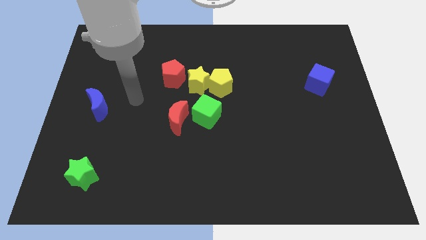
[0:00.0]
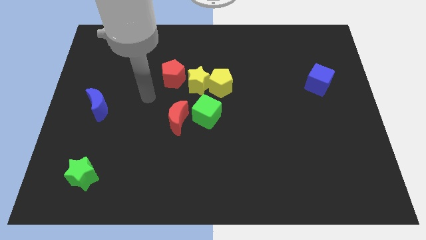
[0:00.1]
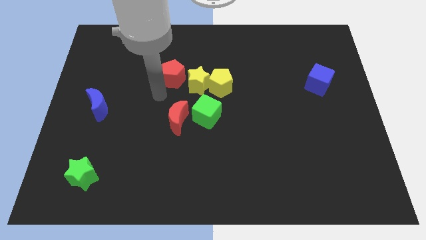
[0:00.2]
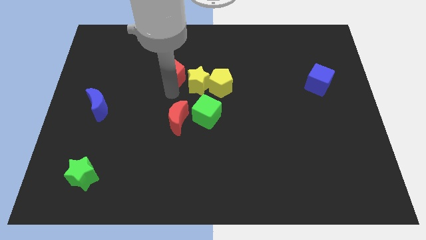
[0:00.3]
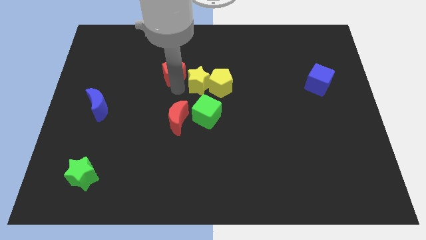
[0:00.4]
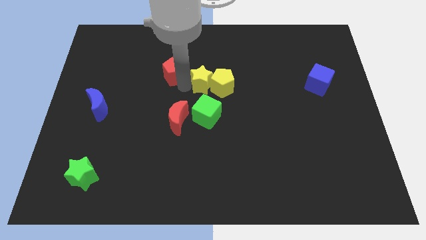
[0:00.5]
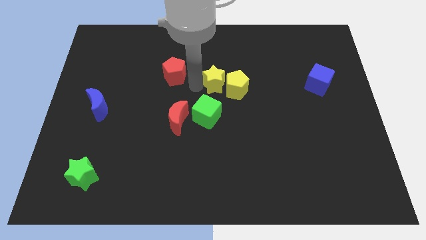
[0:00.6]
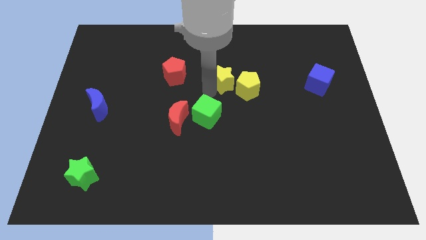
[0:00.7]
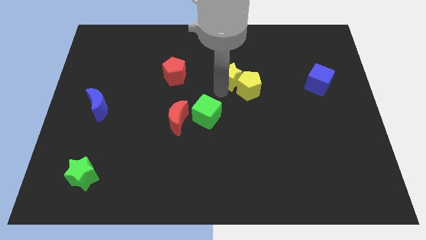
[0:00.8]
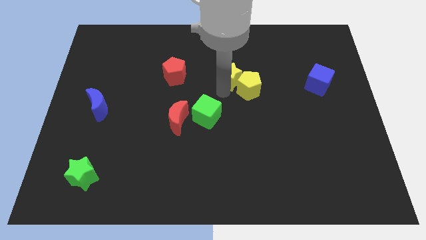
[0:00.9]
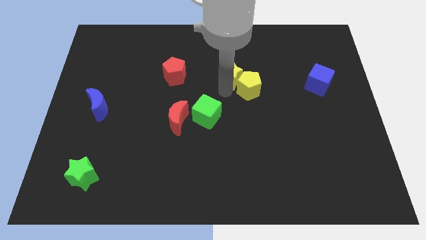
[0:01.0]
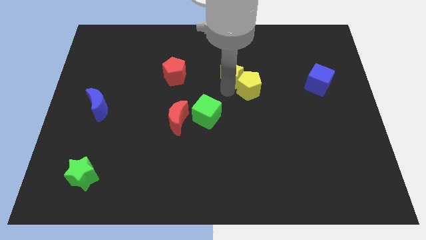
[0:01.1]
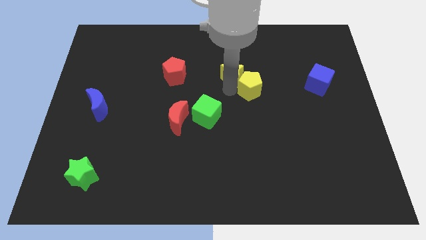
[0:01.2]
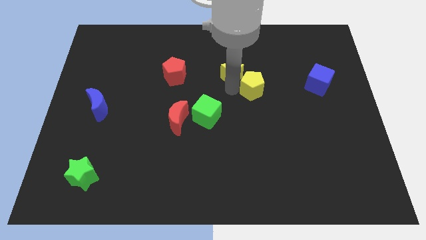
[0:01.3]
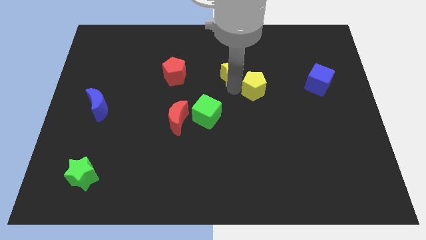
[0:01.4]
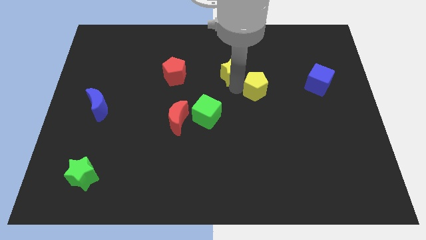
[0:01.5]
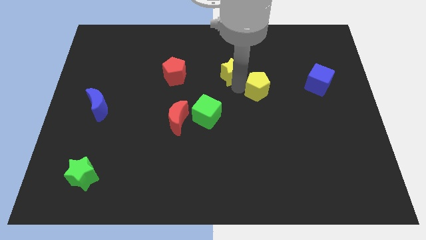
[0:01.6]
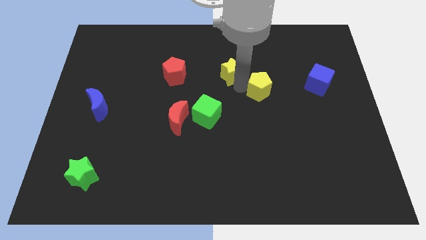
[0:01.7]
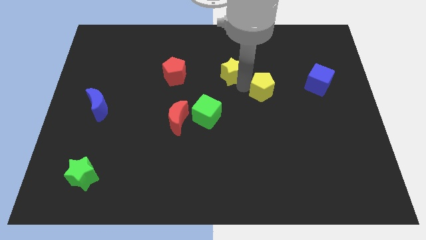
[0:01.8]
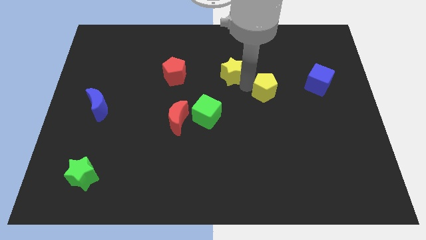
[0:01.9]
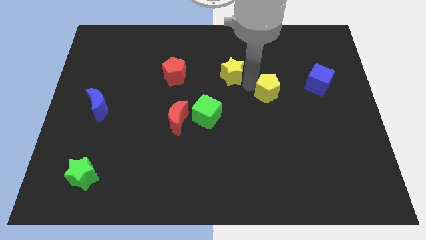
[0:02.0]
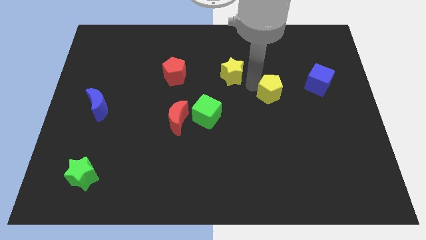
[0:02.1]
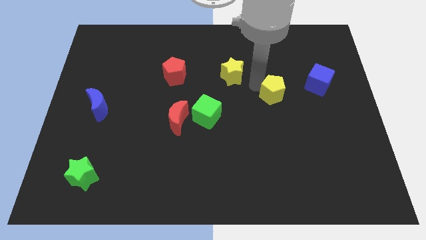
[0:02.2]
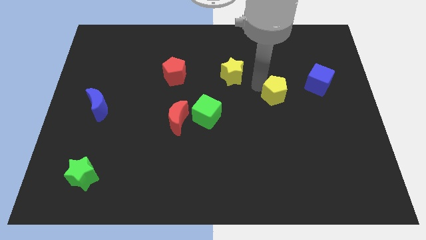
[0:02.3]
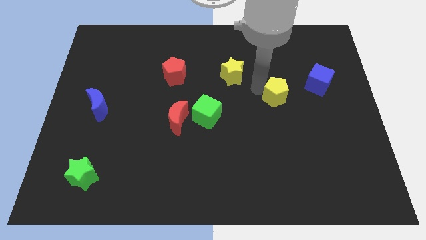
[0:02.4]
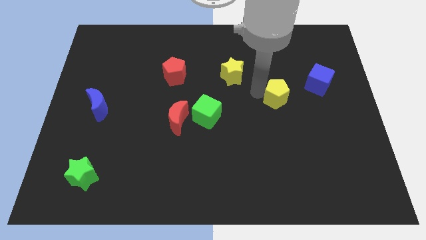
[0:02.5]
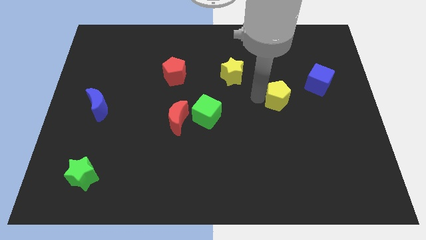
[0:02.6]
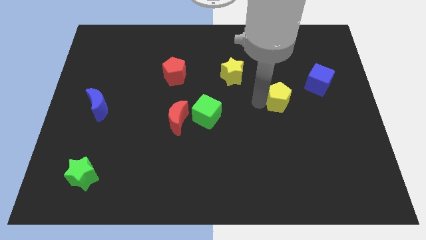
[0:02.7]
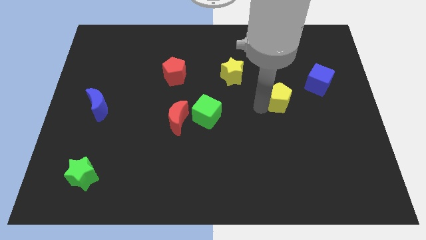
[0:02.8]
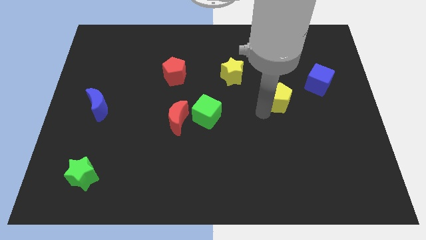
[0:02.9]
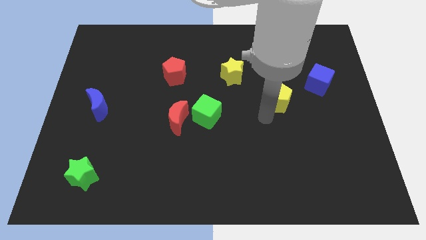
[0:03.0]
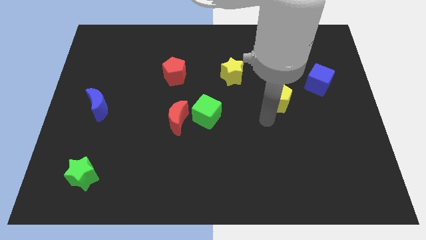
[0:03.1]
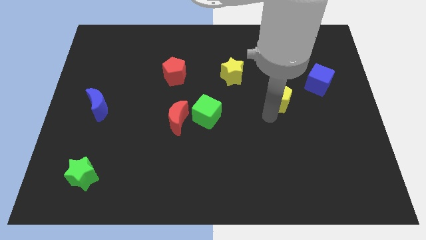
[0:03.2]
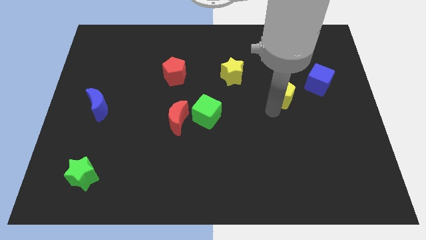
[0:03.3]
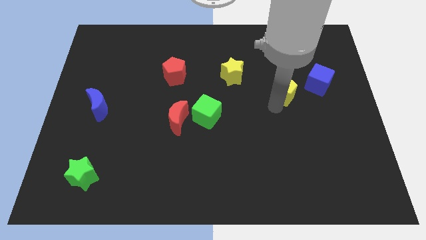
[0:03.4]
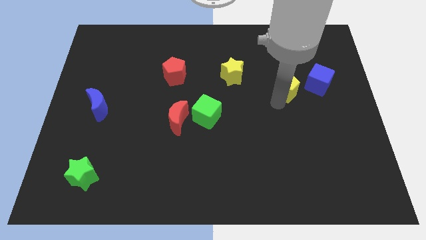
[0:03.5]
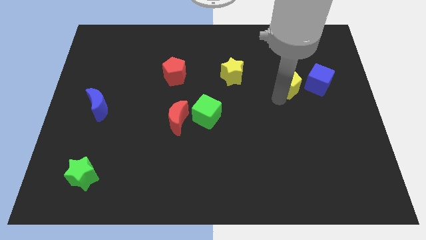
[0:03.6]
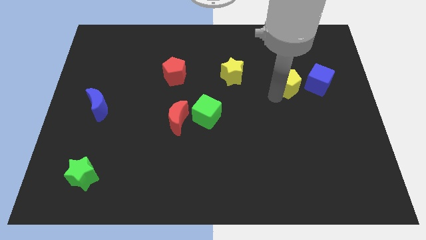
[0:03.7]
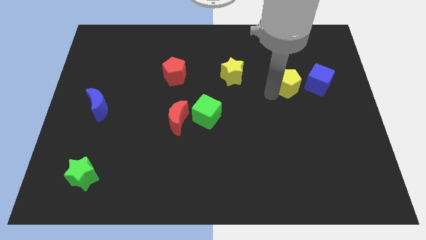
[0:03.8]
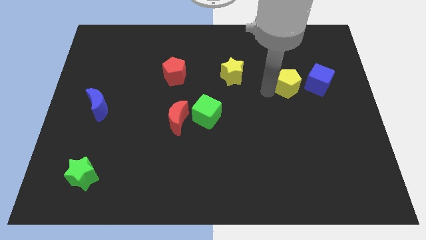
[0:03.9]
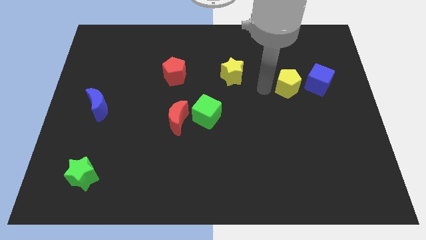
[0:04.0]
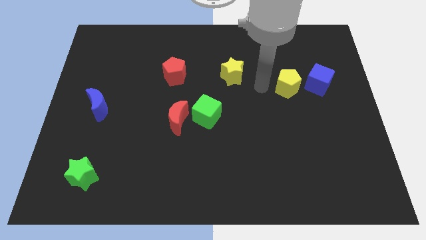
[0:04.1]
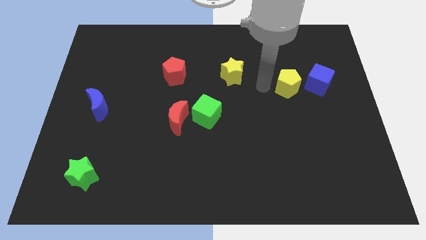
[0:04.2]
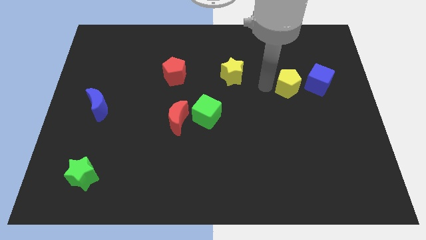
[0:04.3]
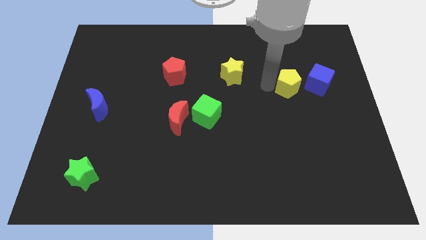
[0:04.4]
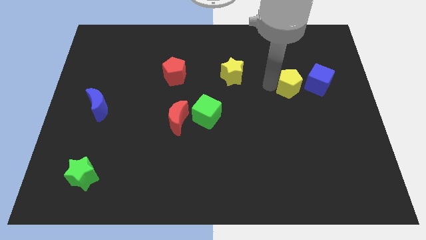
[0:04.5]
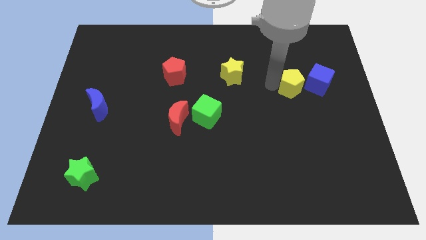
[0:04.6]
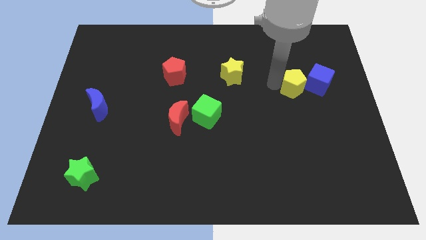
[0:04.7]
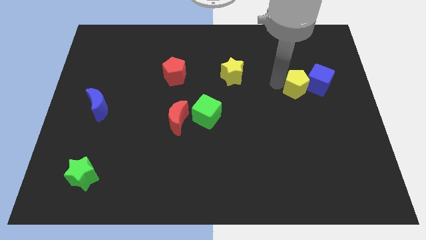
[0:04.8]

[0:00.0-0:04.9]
slide the yellow pentagon towards the blue cube

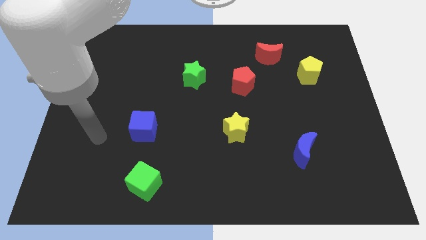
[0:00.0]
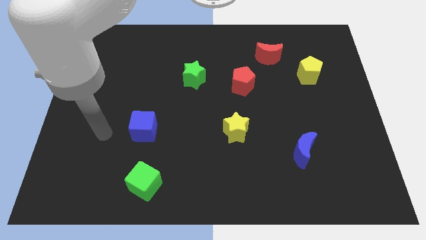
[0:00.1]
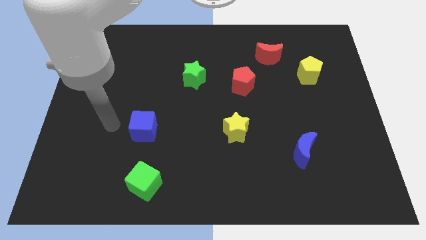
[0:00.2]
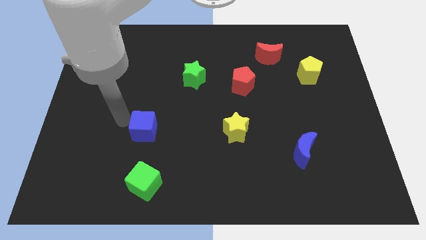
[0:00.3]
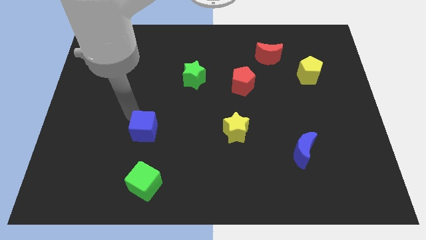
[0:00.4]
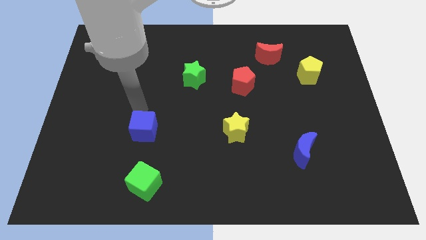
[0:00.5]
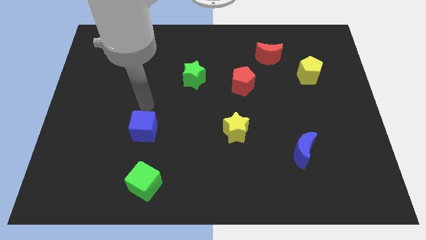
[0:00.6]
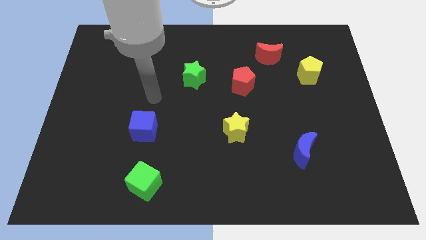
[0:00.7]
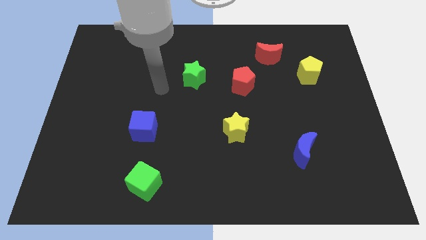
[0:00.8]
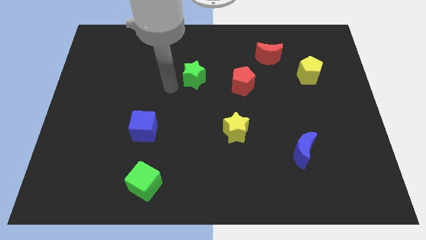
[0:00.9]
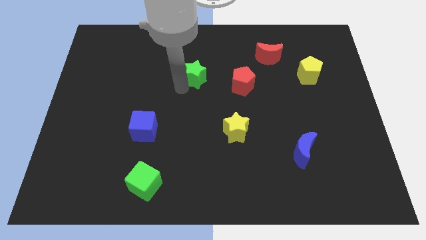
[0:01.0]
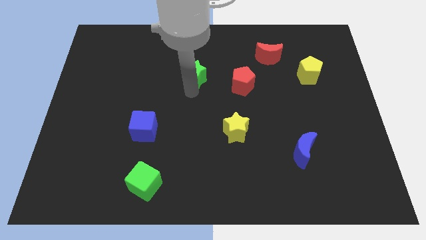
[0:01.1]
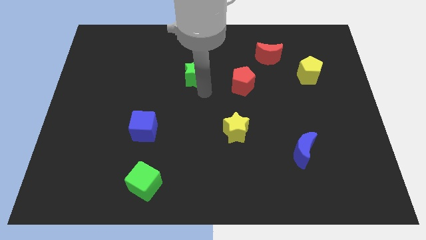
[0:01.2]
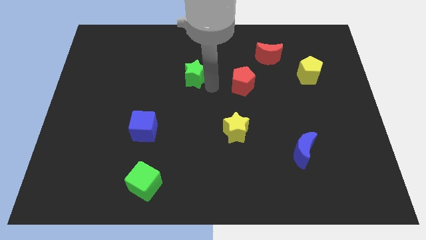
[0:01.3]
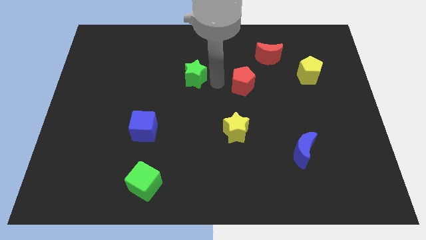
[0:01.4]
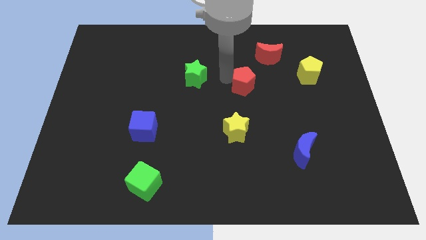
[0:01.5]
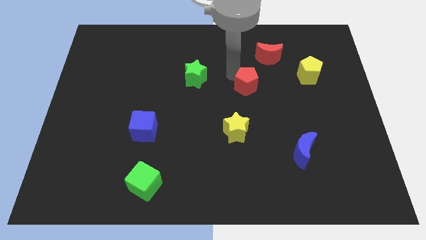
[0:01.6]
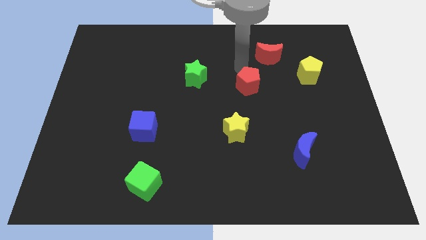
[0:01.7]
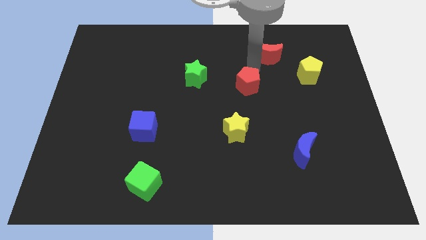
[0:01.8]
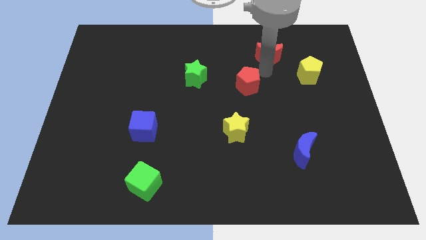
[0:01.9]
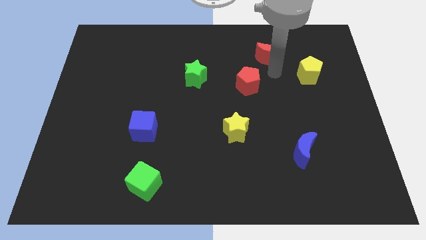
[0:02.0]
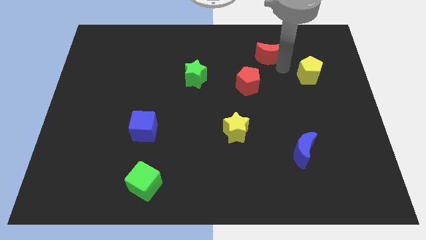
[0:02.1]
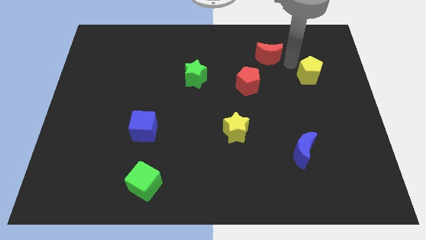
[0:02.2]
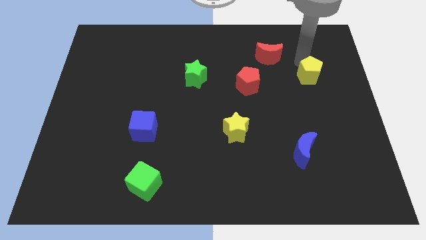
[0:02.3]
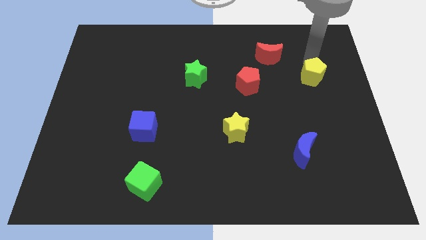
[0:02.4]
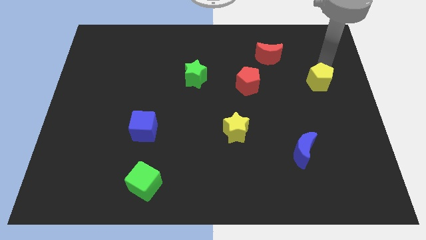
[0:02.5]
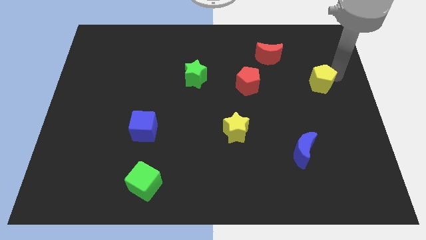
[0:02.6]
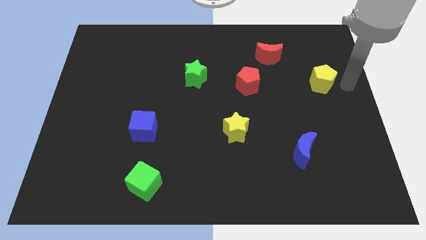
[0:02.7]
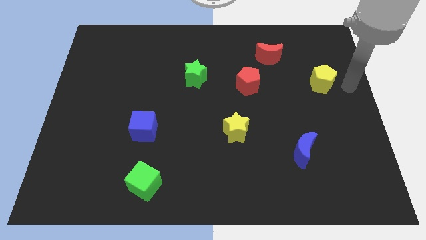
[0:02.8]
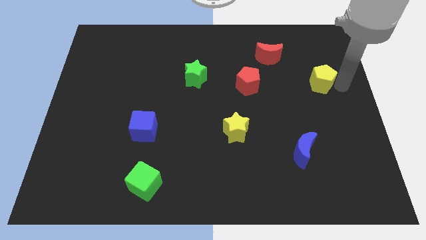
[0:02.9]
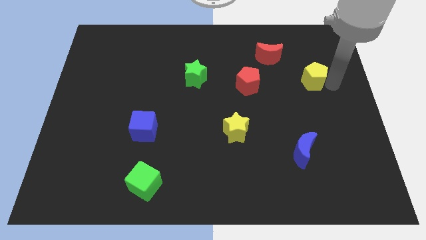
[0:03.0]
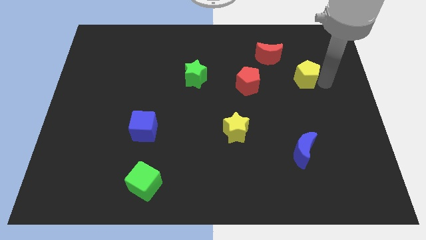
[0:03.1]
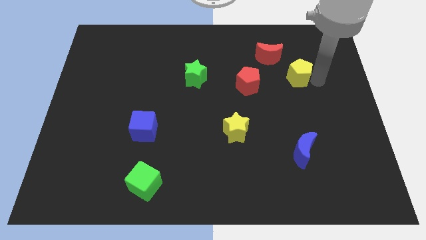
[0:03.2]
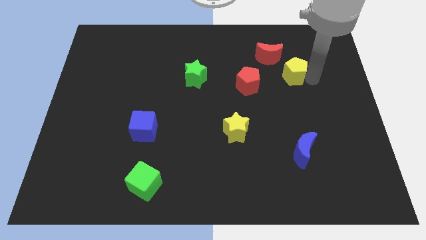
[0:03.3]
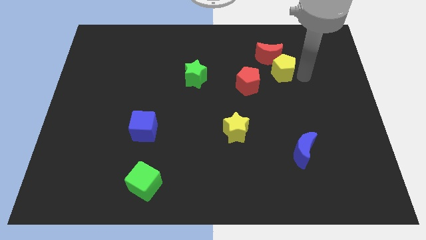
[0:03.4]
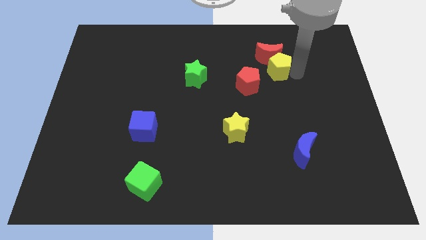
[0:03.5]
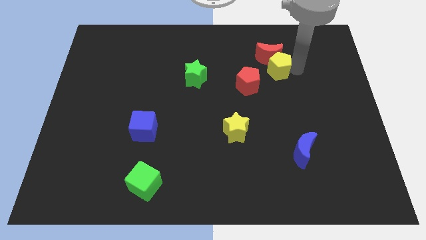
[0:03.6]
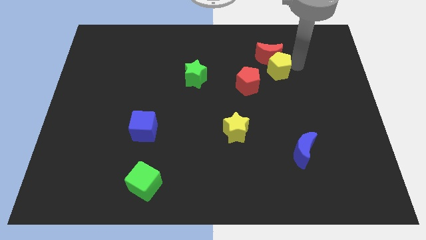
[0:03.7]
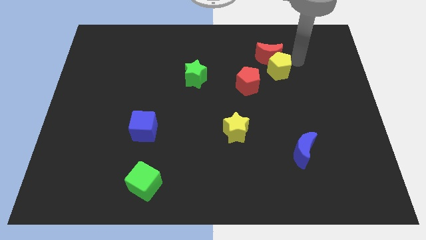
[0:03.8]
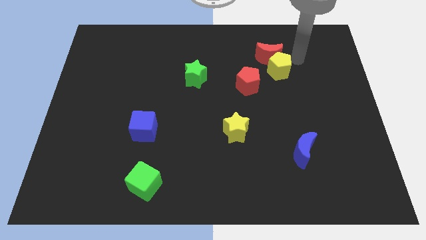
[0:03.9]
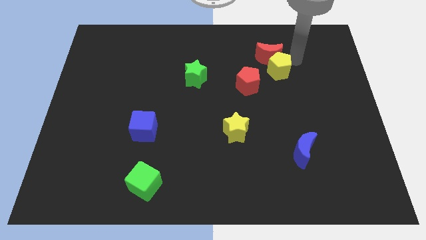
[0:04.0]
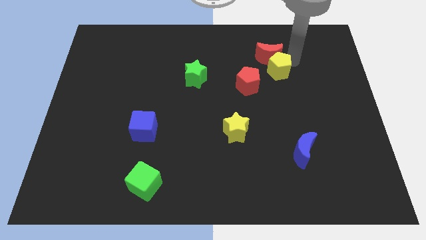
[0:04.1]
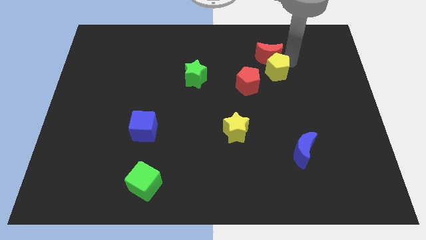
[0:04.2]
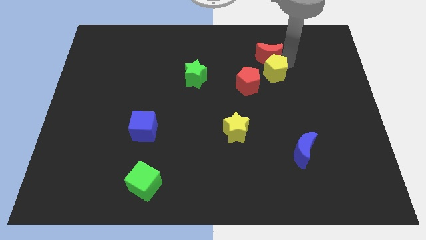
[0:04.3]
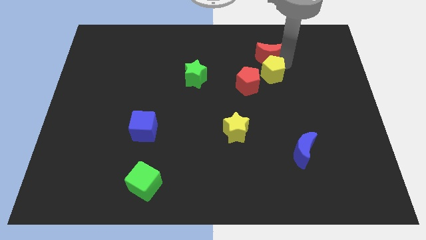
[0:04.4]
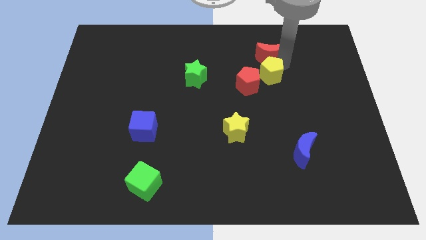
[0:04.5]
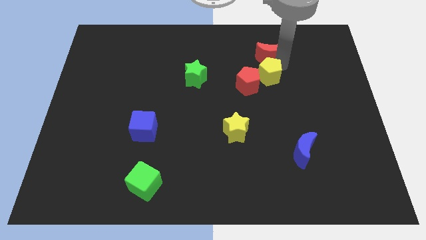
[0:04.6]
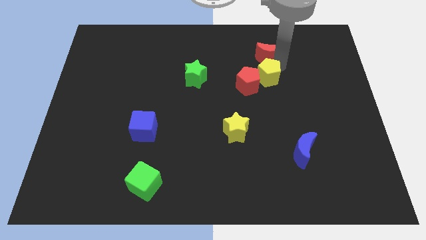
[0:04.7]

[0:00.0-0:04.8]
push the yellow pentagon close to the red pentagon
